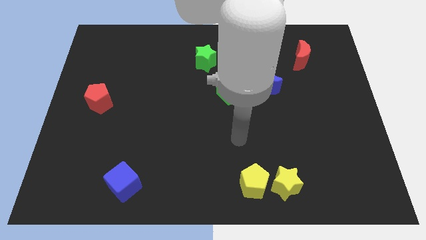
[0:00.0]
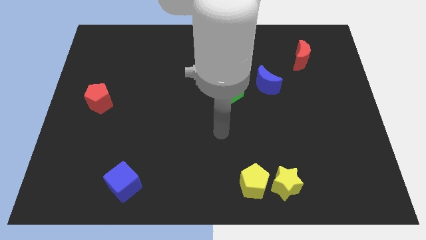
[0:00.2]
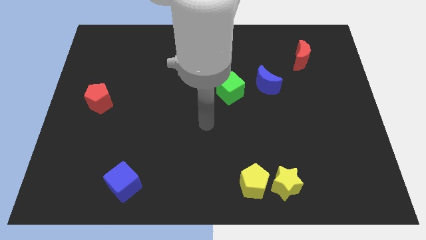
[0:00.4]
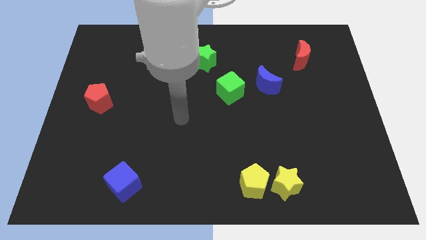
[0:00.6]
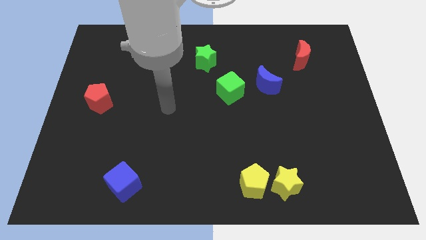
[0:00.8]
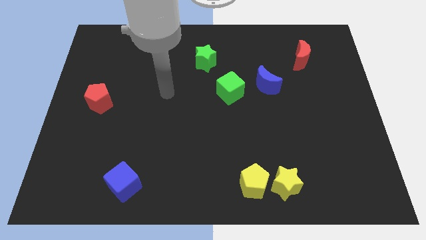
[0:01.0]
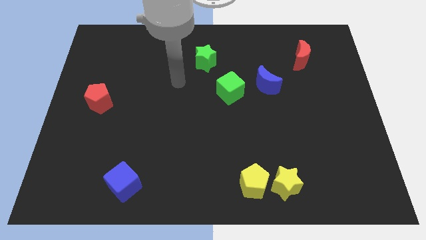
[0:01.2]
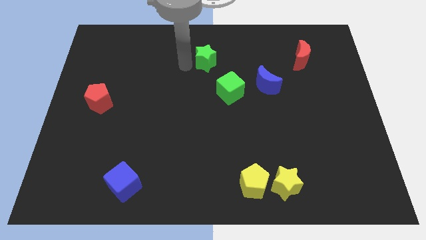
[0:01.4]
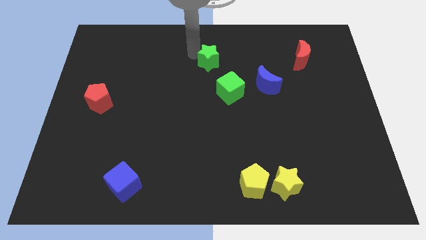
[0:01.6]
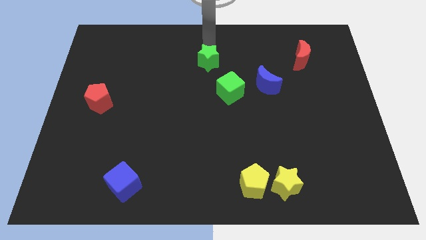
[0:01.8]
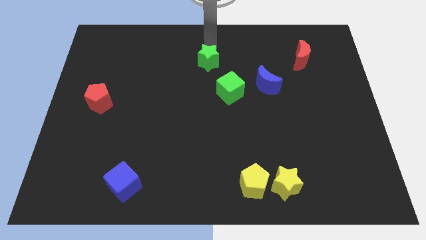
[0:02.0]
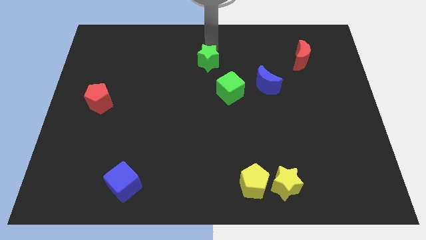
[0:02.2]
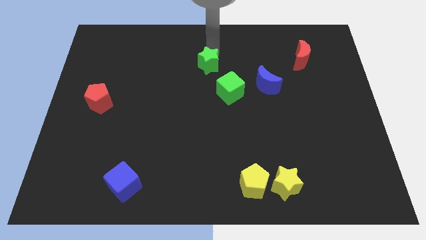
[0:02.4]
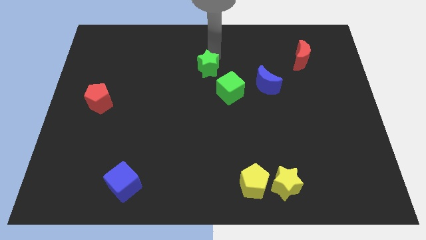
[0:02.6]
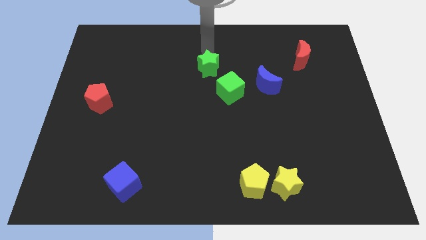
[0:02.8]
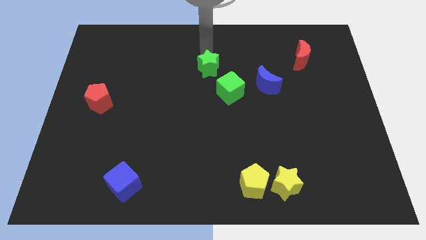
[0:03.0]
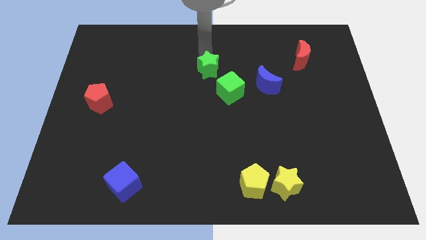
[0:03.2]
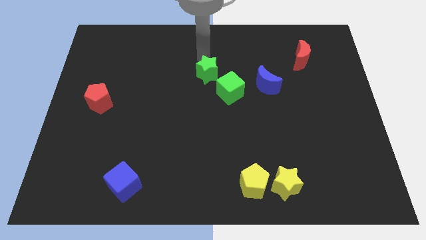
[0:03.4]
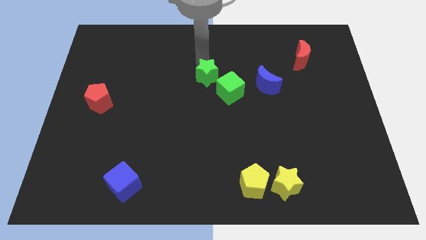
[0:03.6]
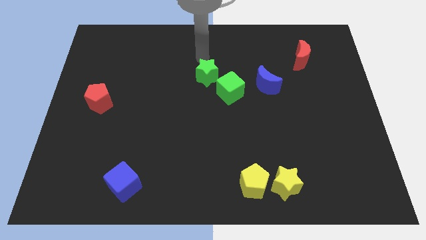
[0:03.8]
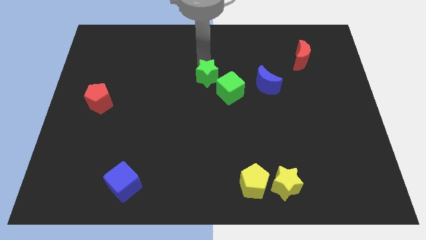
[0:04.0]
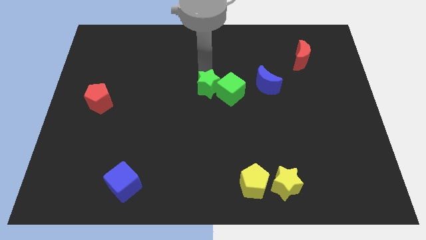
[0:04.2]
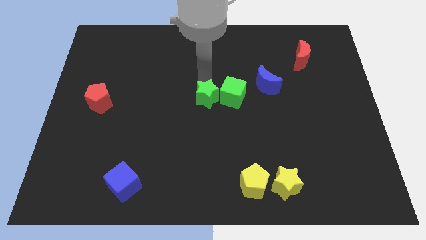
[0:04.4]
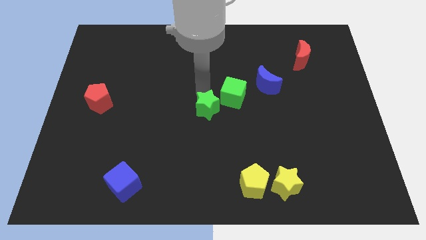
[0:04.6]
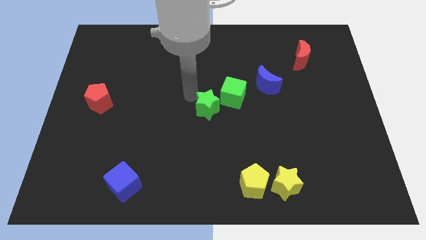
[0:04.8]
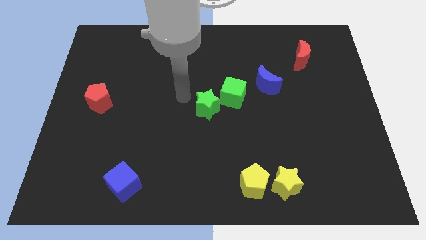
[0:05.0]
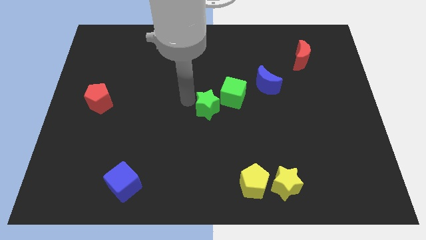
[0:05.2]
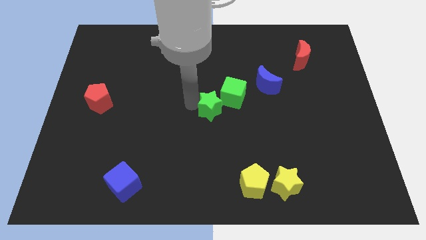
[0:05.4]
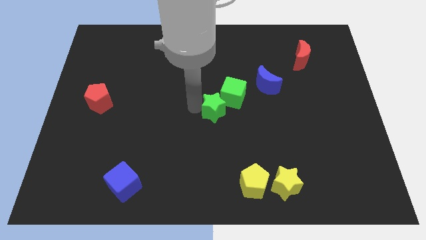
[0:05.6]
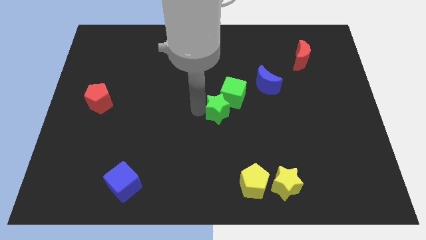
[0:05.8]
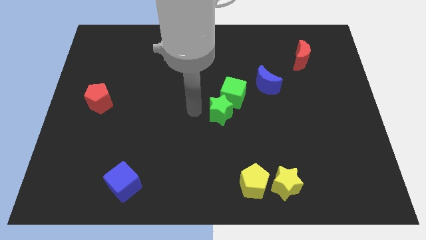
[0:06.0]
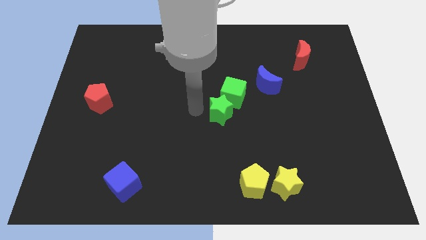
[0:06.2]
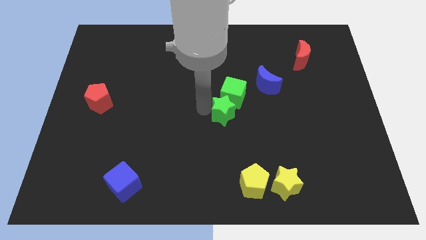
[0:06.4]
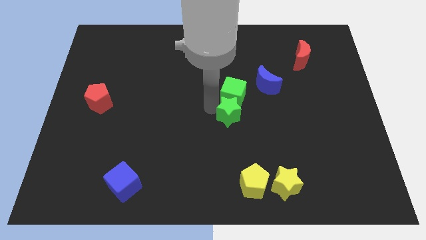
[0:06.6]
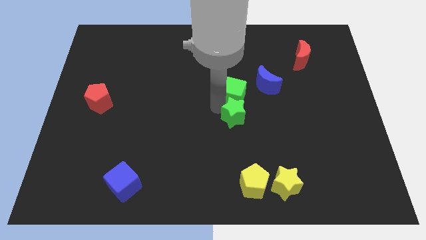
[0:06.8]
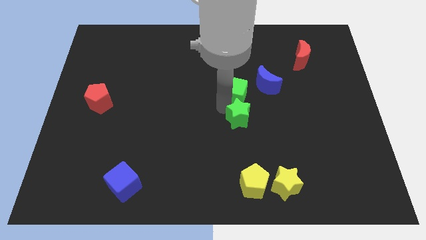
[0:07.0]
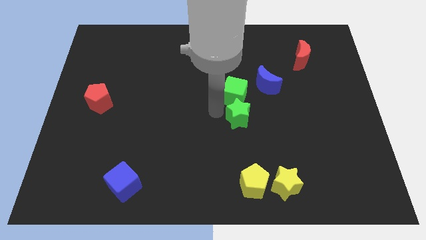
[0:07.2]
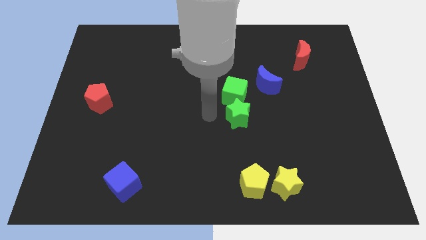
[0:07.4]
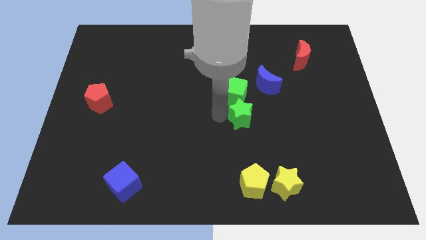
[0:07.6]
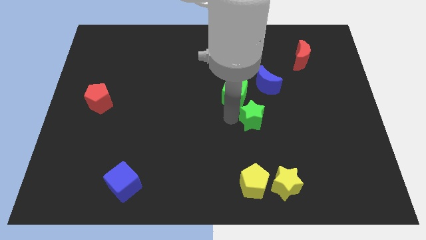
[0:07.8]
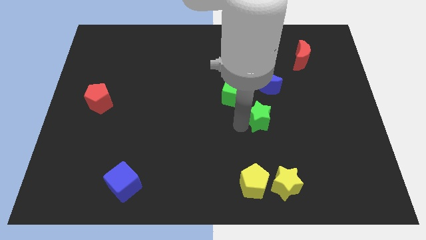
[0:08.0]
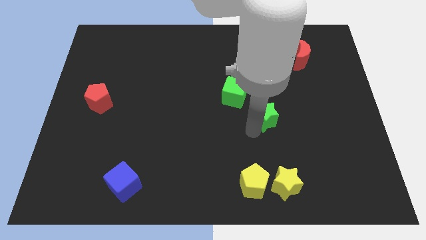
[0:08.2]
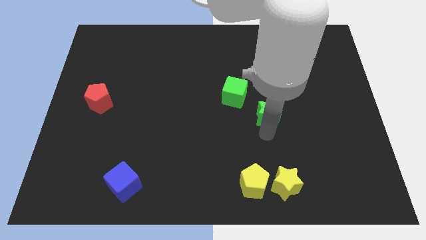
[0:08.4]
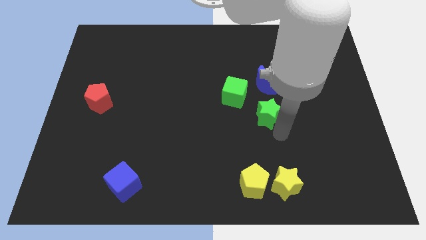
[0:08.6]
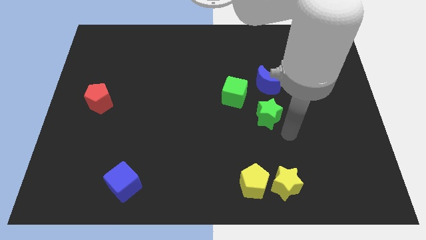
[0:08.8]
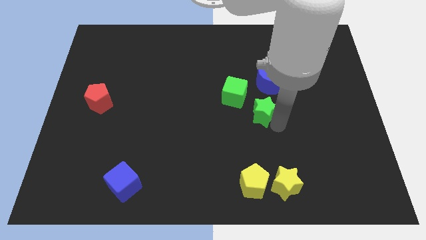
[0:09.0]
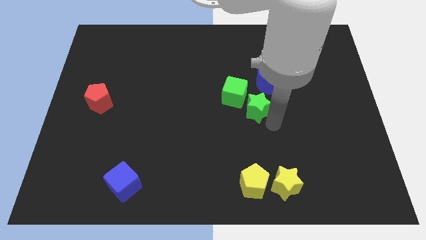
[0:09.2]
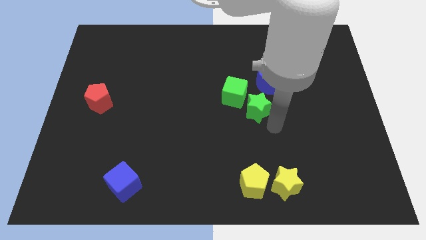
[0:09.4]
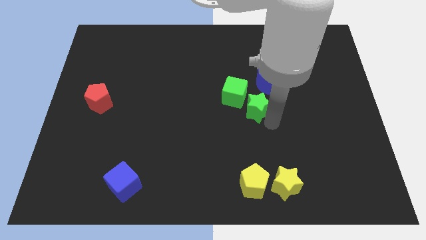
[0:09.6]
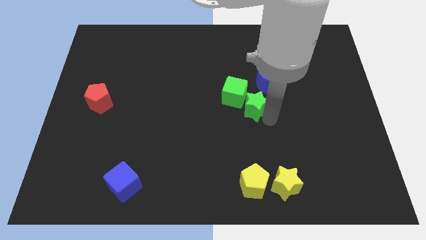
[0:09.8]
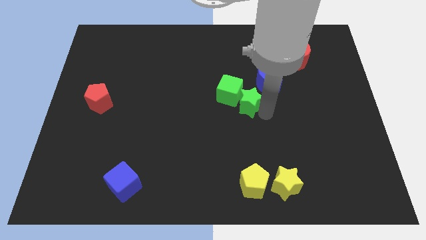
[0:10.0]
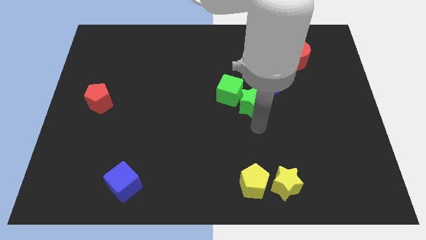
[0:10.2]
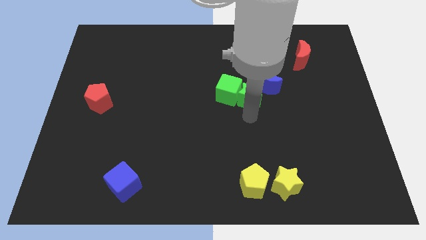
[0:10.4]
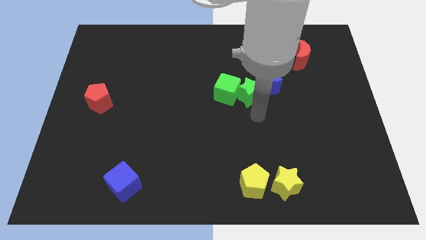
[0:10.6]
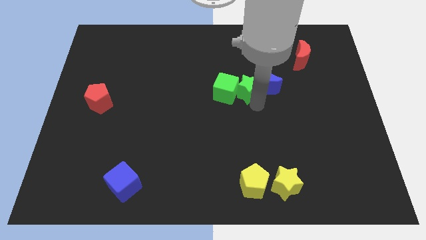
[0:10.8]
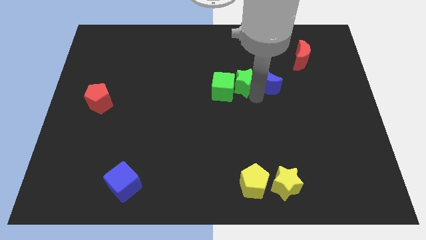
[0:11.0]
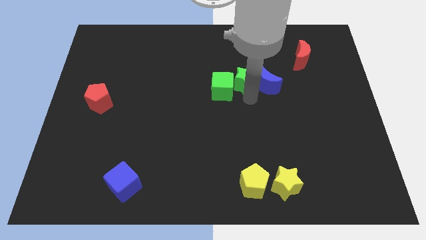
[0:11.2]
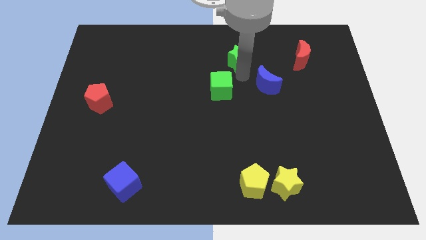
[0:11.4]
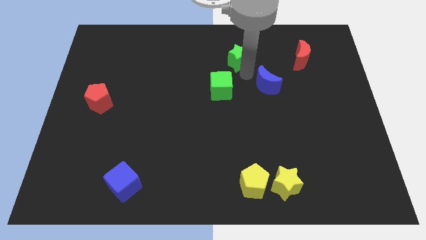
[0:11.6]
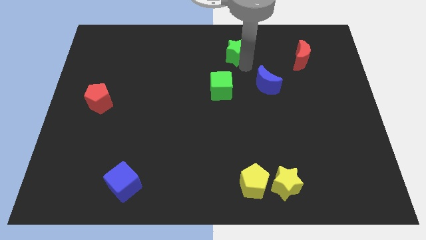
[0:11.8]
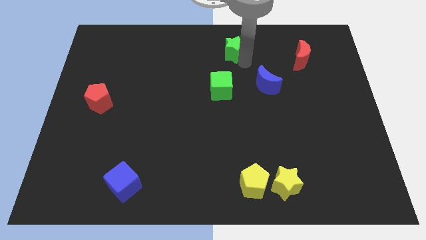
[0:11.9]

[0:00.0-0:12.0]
put the green star to the top

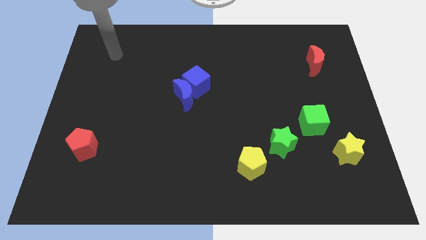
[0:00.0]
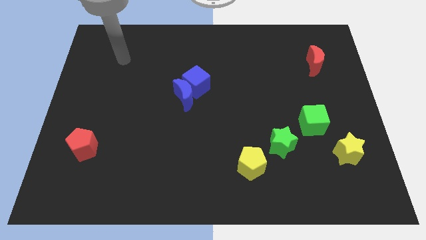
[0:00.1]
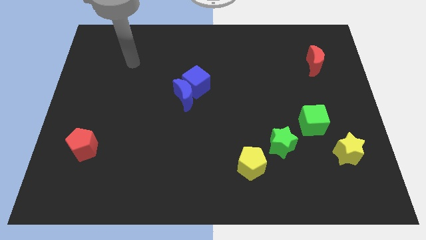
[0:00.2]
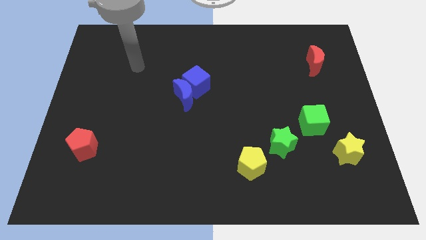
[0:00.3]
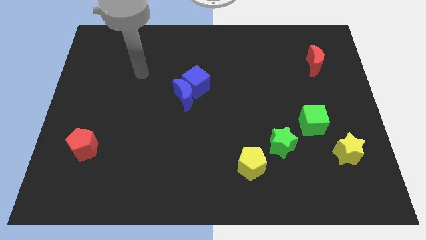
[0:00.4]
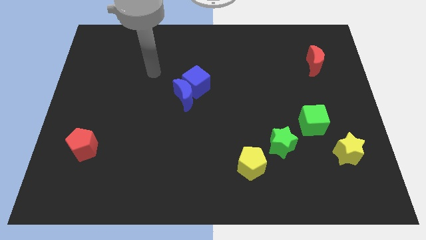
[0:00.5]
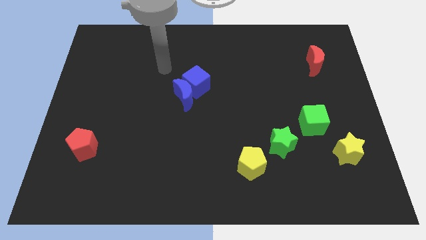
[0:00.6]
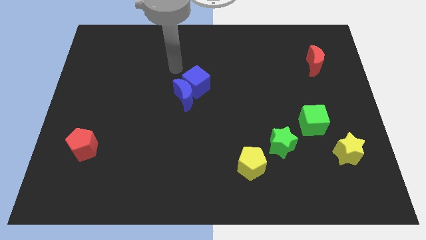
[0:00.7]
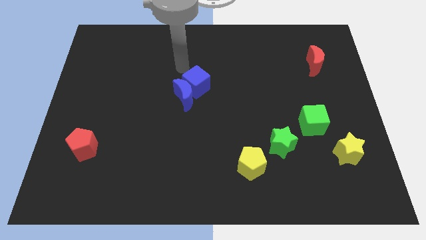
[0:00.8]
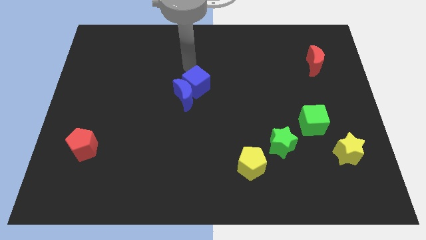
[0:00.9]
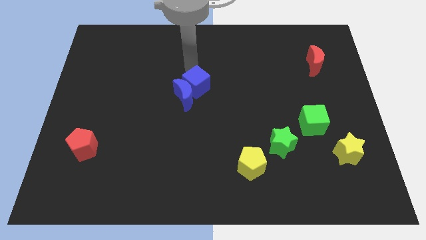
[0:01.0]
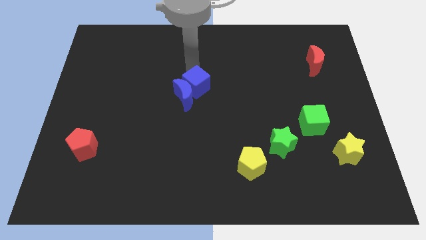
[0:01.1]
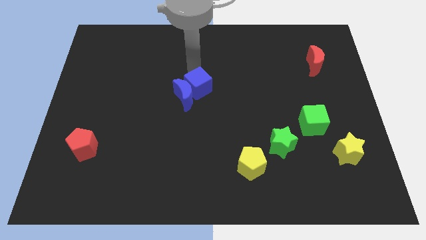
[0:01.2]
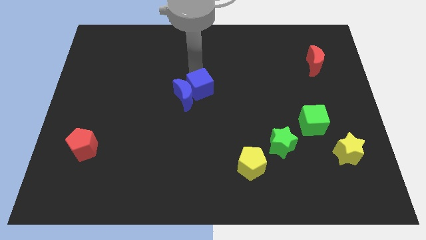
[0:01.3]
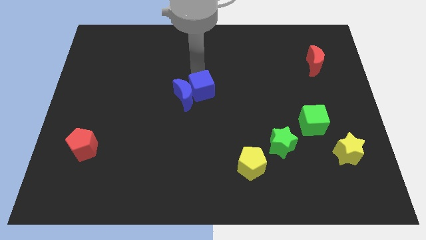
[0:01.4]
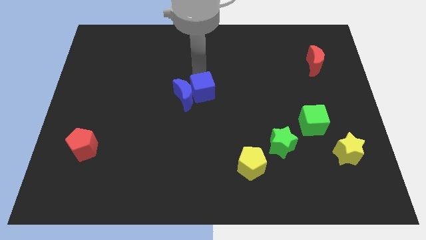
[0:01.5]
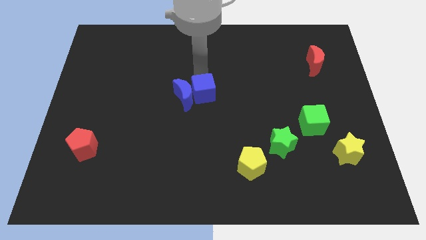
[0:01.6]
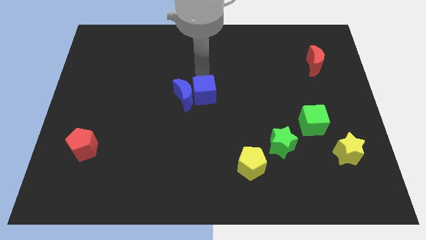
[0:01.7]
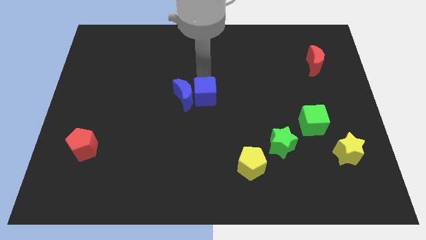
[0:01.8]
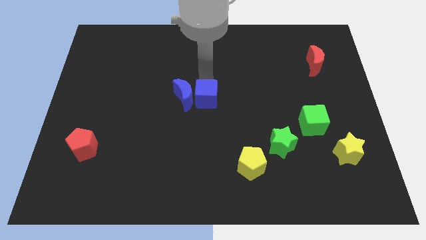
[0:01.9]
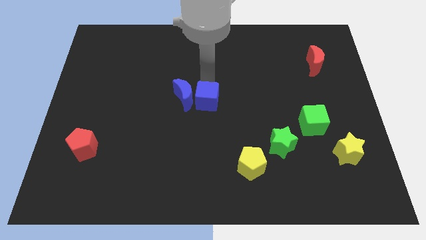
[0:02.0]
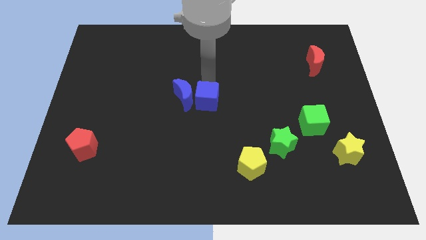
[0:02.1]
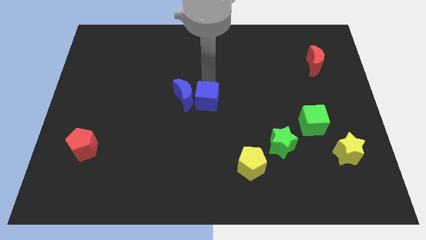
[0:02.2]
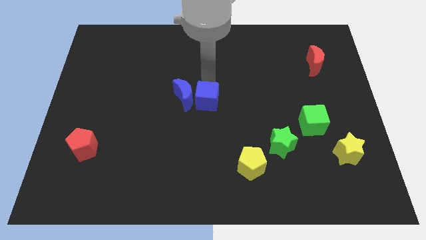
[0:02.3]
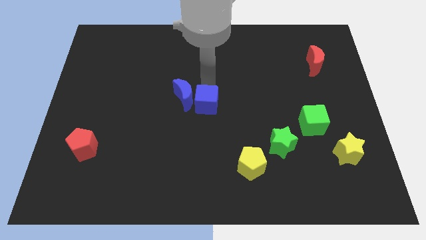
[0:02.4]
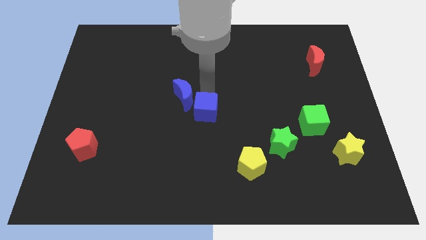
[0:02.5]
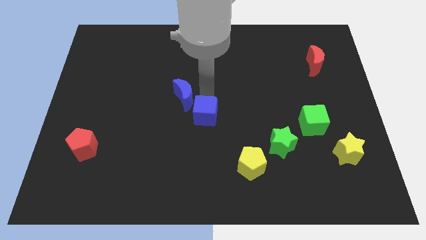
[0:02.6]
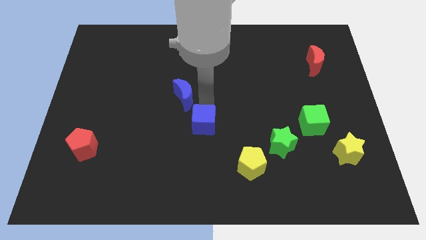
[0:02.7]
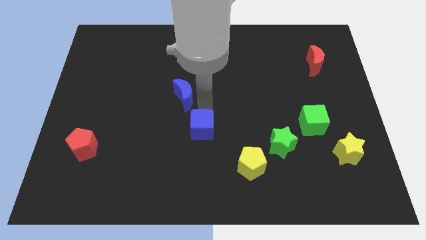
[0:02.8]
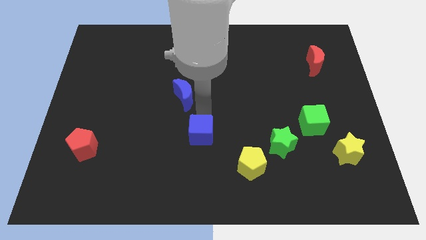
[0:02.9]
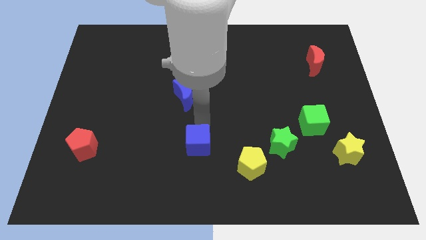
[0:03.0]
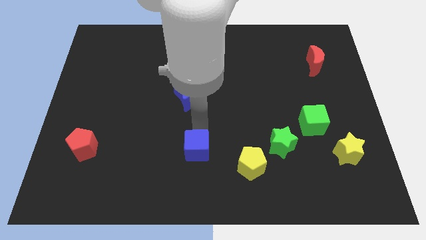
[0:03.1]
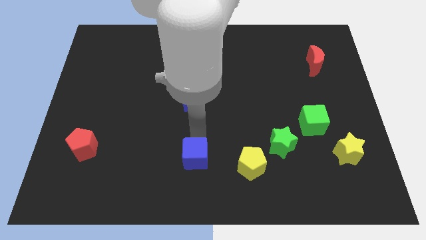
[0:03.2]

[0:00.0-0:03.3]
push the blue cube to the bottom
